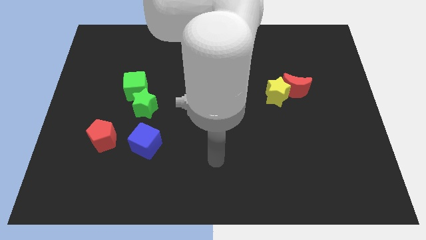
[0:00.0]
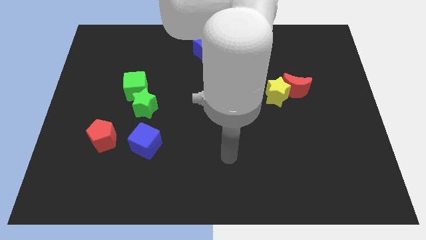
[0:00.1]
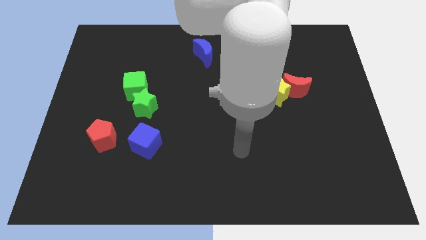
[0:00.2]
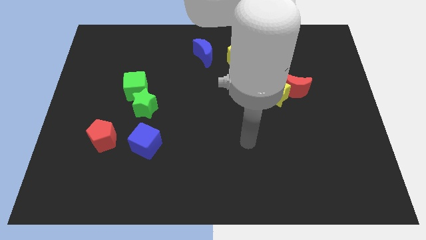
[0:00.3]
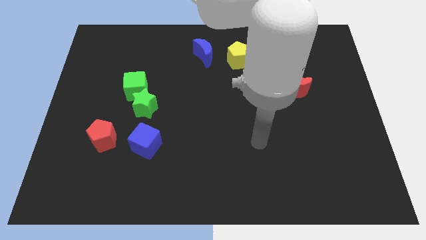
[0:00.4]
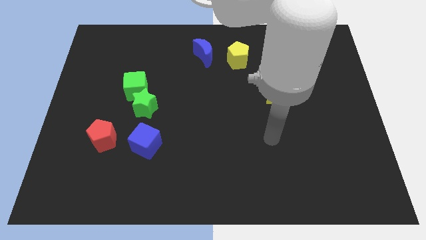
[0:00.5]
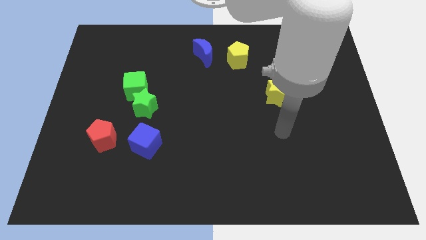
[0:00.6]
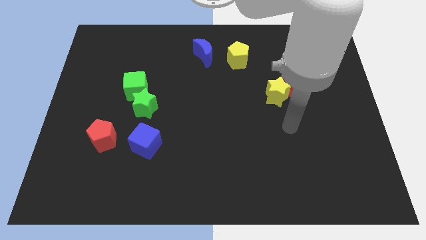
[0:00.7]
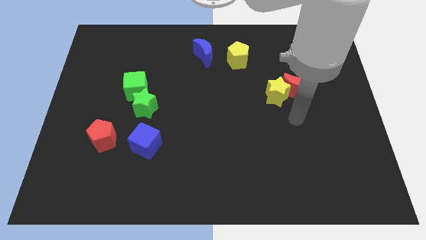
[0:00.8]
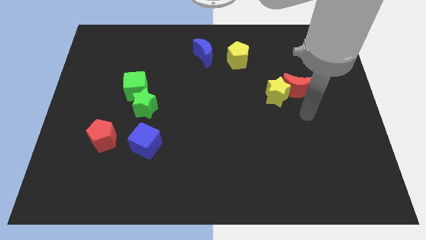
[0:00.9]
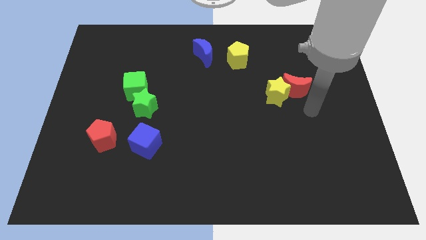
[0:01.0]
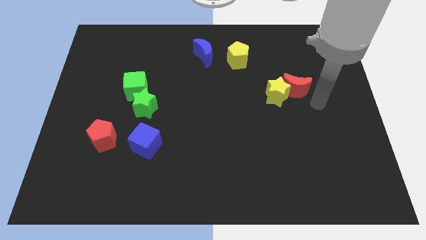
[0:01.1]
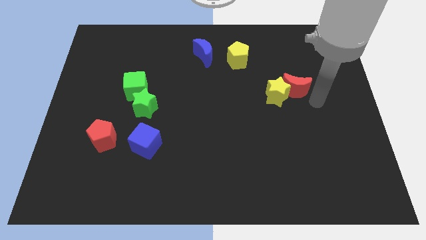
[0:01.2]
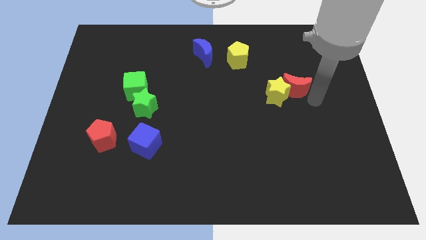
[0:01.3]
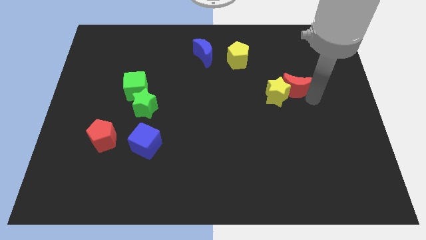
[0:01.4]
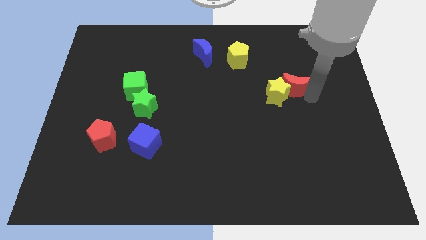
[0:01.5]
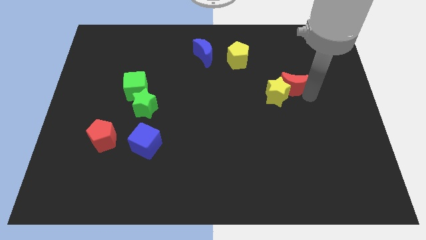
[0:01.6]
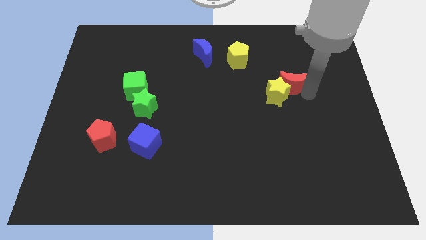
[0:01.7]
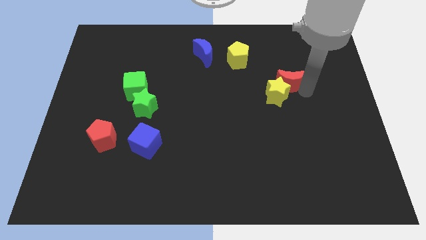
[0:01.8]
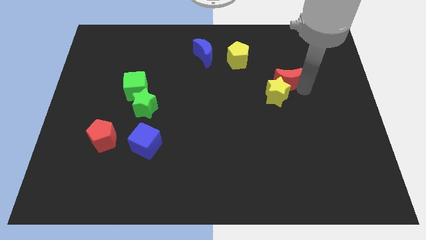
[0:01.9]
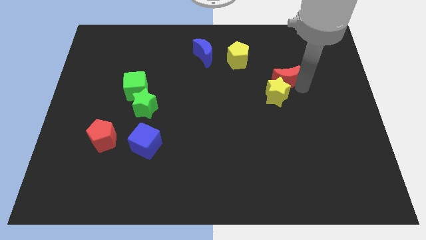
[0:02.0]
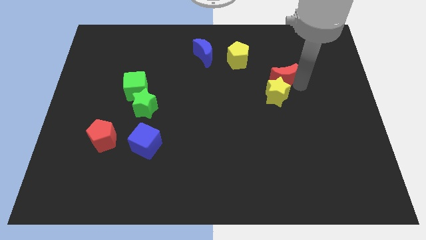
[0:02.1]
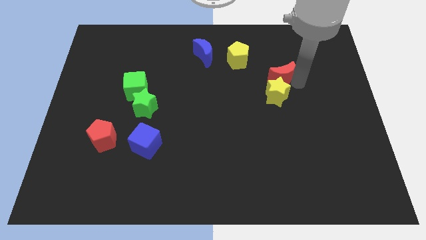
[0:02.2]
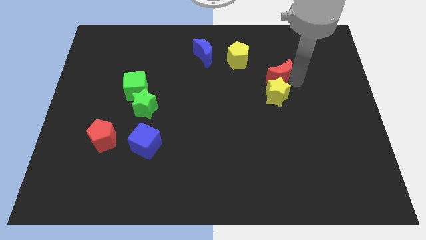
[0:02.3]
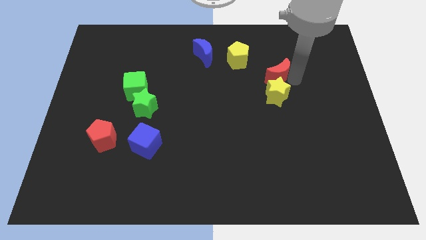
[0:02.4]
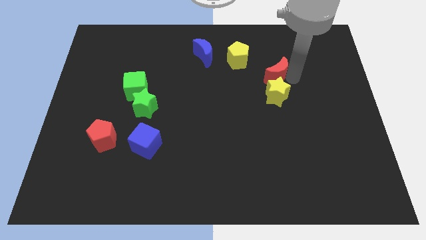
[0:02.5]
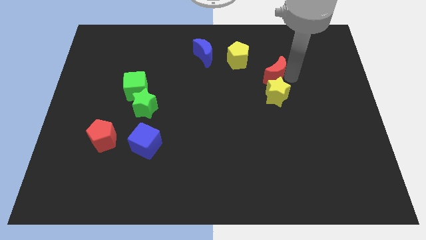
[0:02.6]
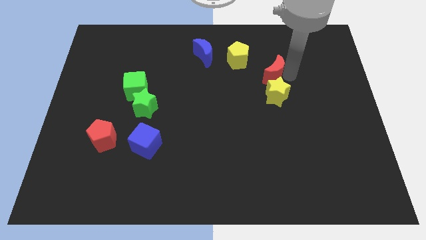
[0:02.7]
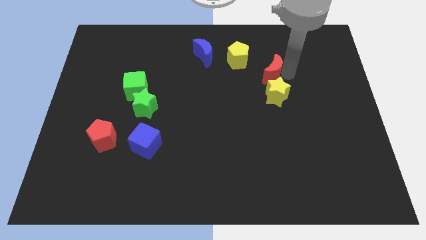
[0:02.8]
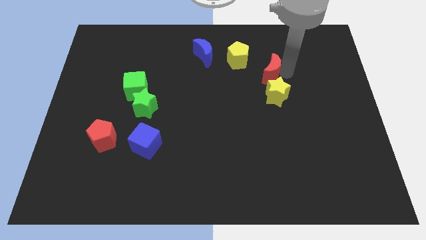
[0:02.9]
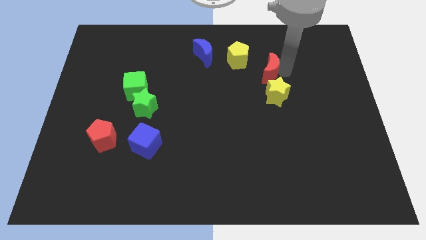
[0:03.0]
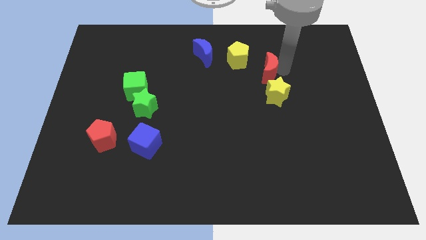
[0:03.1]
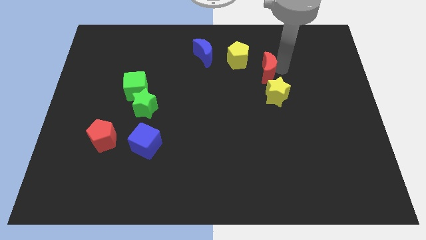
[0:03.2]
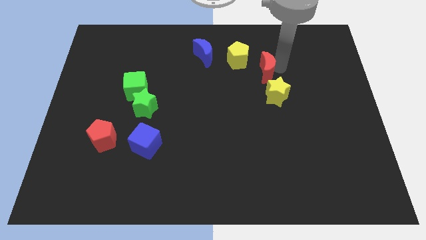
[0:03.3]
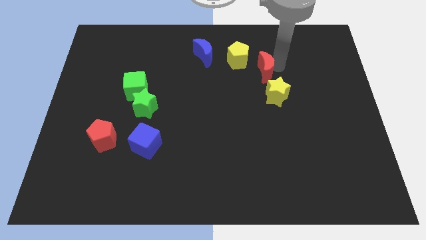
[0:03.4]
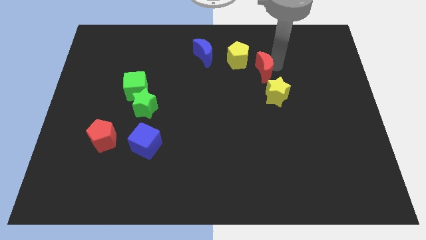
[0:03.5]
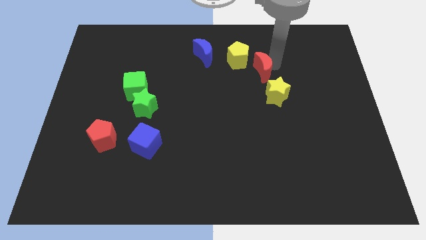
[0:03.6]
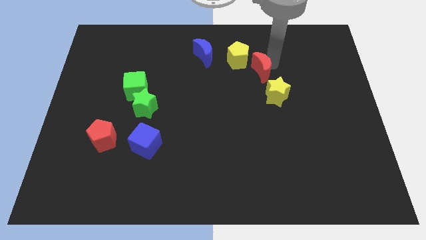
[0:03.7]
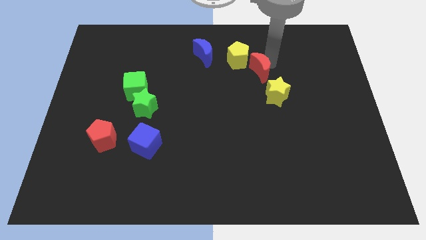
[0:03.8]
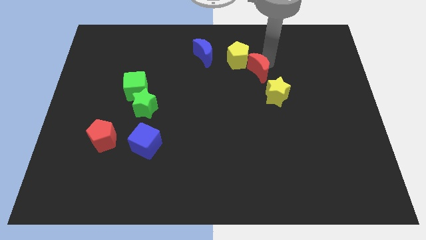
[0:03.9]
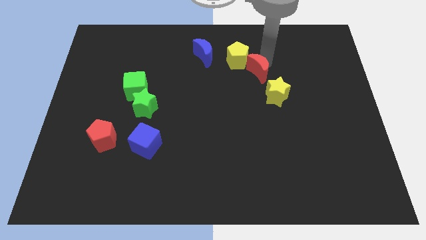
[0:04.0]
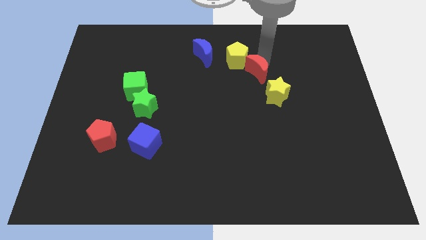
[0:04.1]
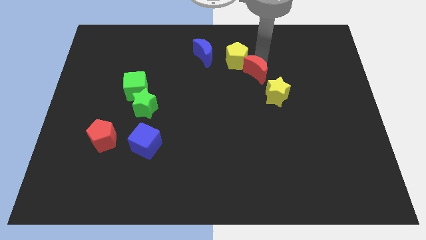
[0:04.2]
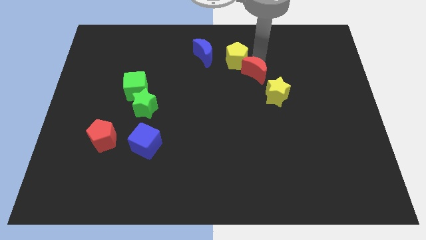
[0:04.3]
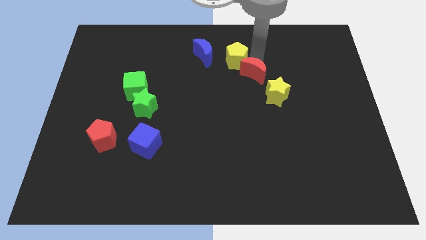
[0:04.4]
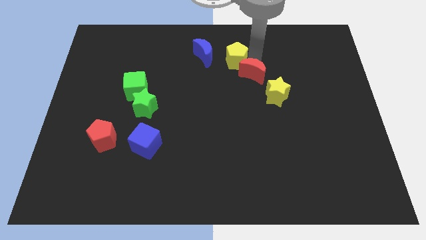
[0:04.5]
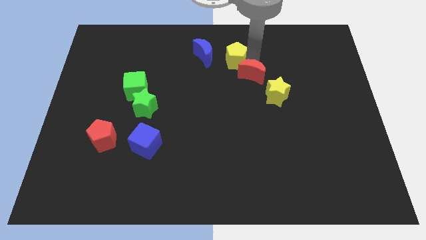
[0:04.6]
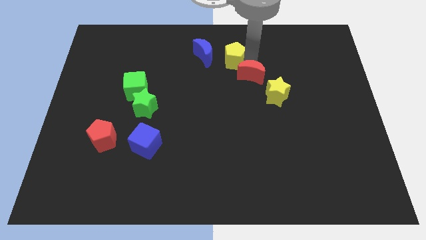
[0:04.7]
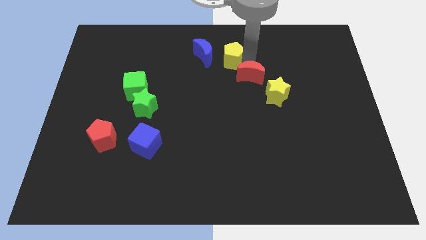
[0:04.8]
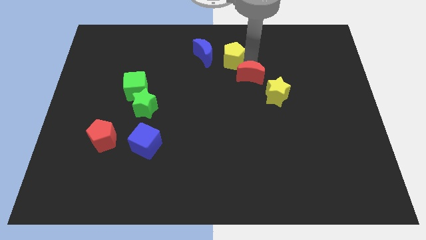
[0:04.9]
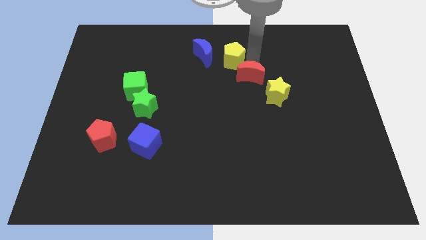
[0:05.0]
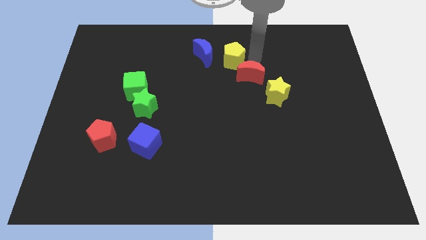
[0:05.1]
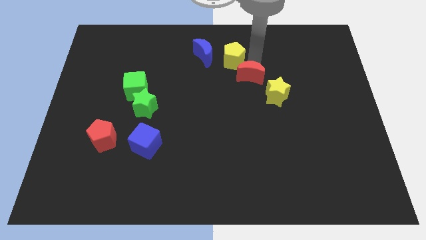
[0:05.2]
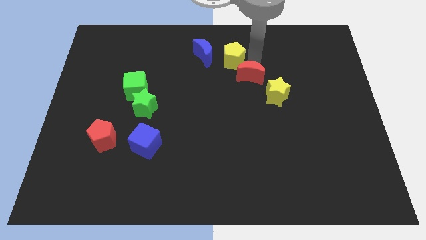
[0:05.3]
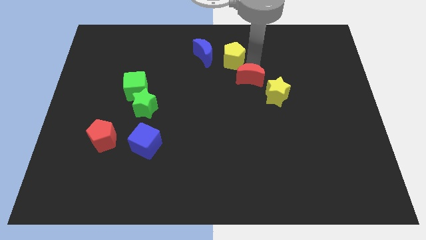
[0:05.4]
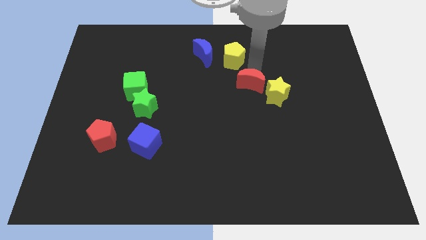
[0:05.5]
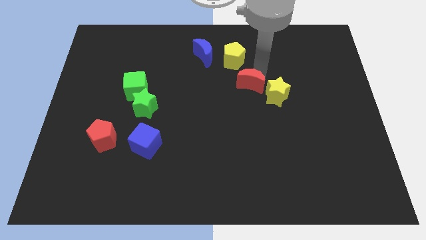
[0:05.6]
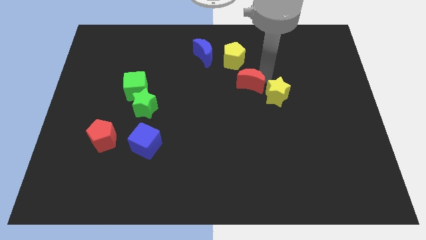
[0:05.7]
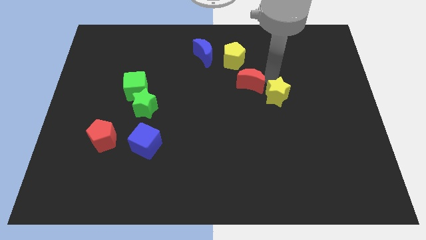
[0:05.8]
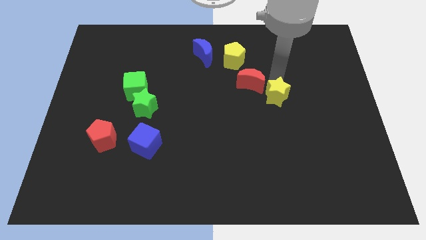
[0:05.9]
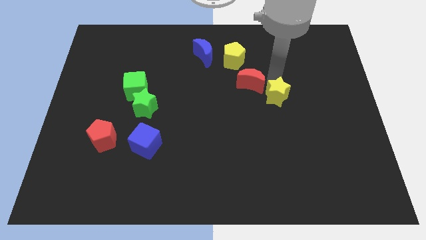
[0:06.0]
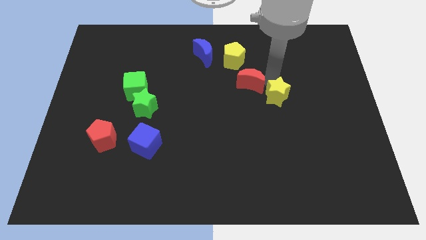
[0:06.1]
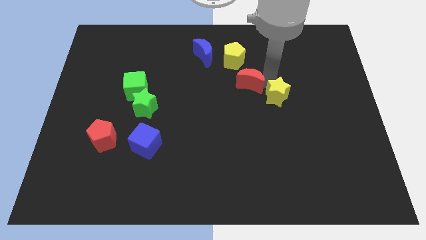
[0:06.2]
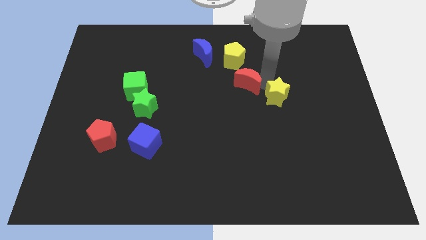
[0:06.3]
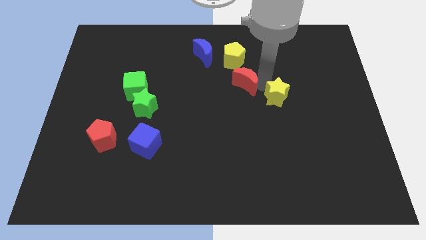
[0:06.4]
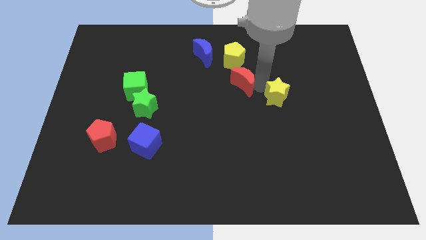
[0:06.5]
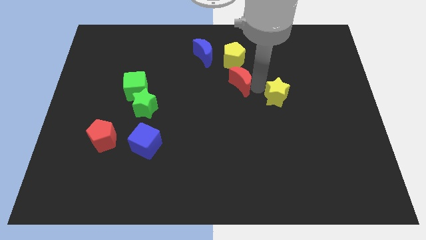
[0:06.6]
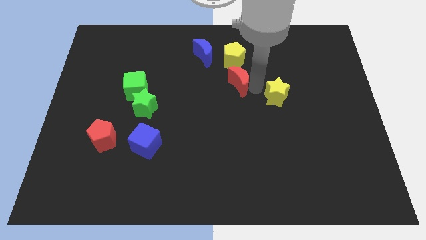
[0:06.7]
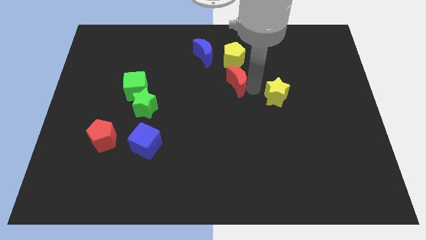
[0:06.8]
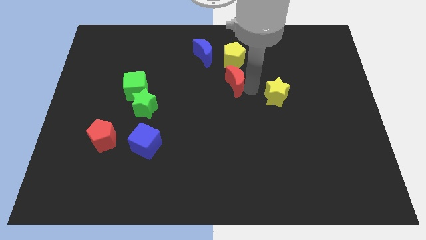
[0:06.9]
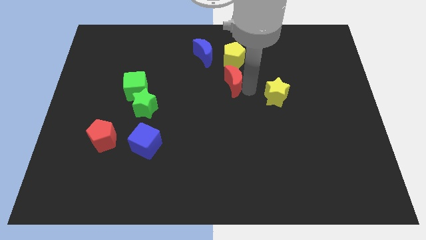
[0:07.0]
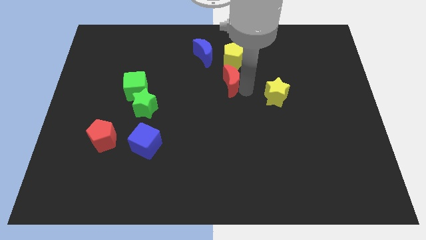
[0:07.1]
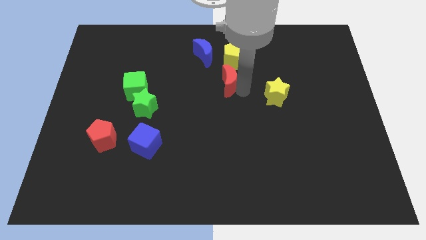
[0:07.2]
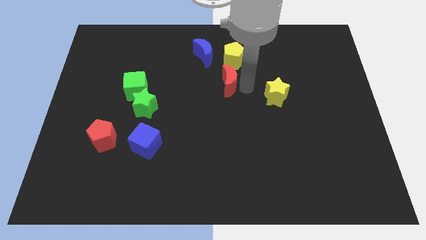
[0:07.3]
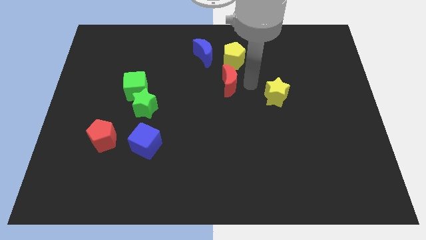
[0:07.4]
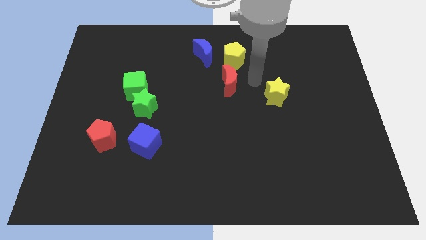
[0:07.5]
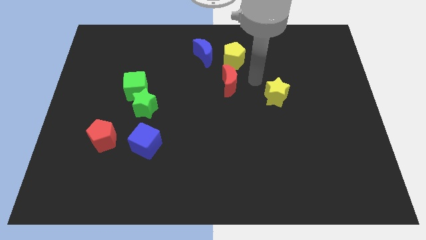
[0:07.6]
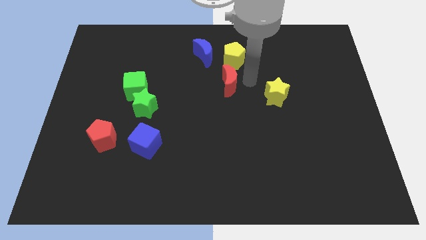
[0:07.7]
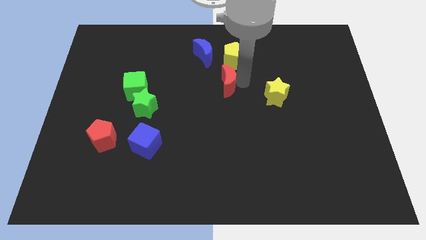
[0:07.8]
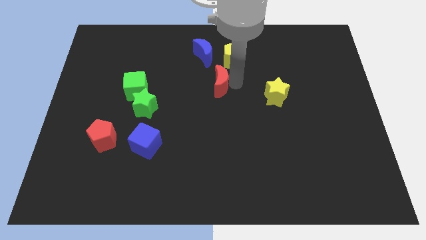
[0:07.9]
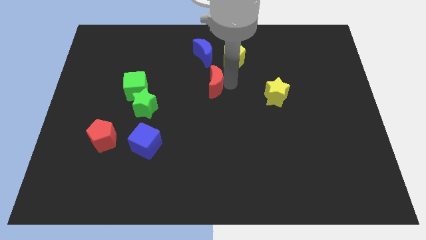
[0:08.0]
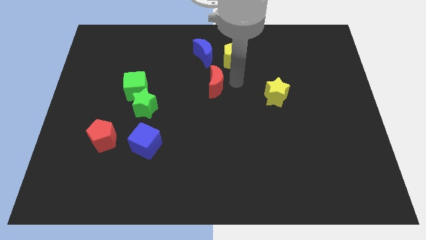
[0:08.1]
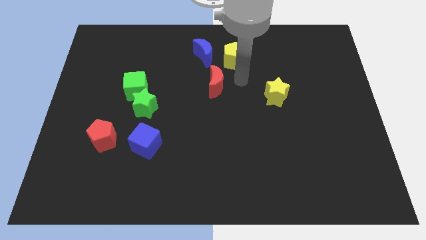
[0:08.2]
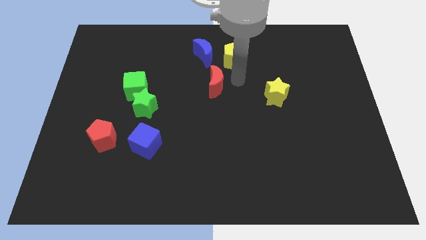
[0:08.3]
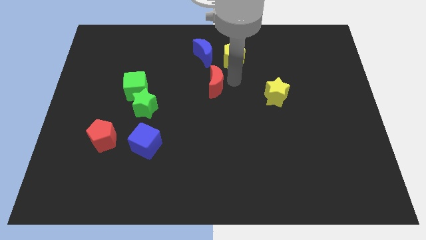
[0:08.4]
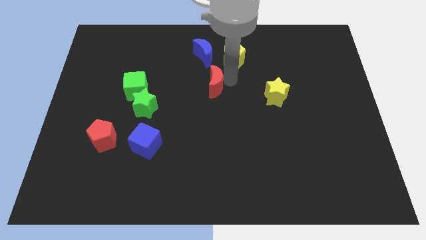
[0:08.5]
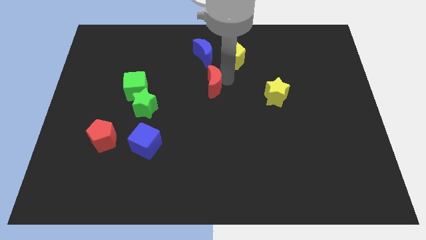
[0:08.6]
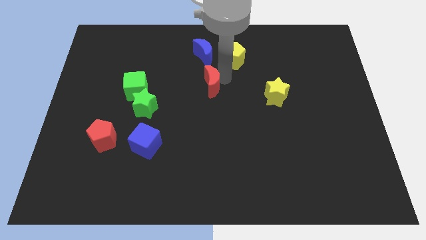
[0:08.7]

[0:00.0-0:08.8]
push the red moon to the left
